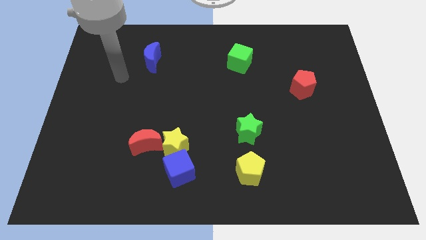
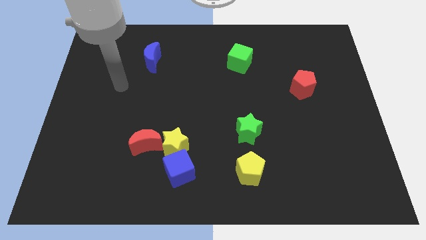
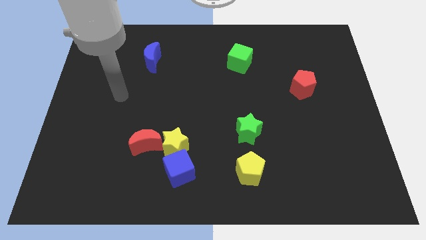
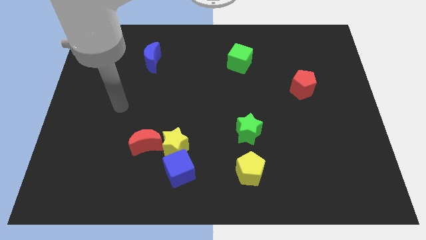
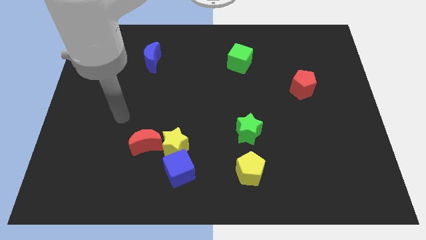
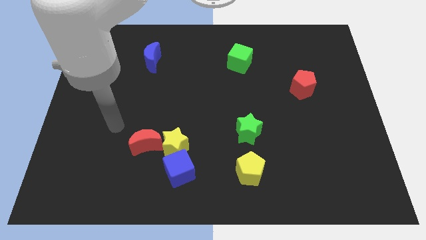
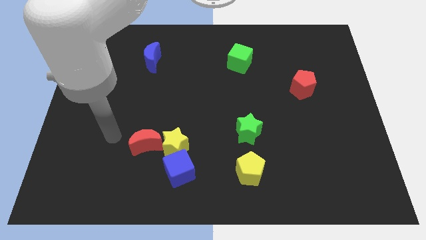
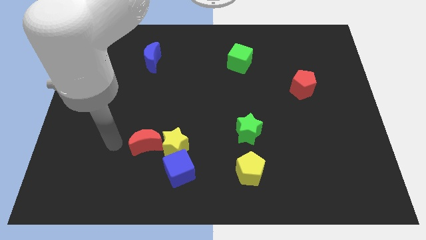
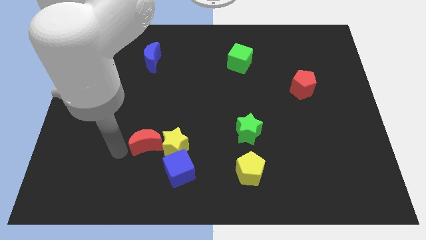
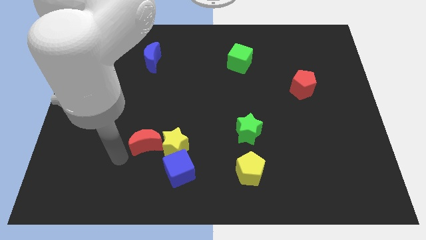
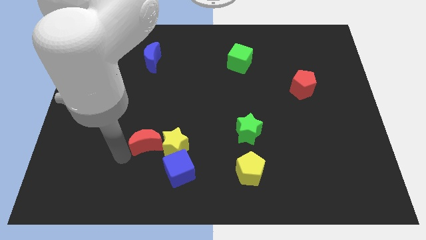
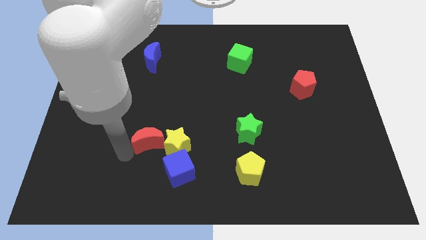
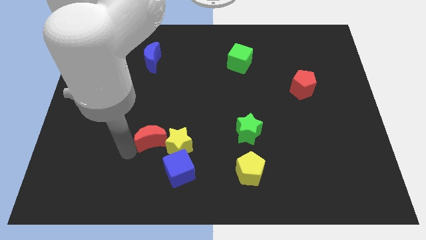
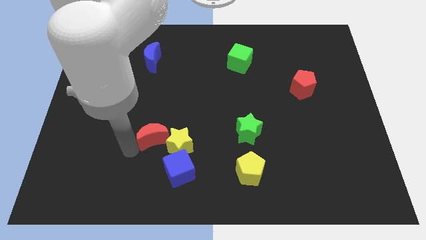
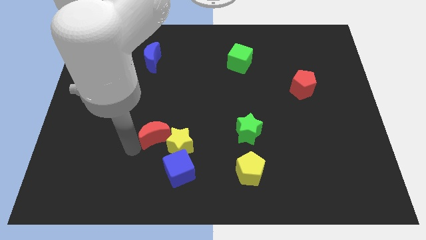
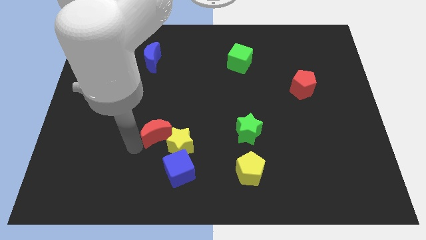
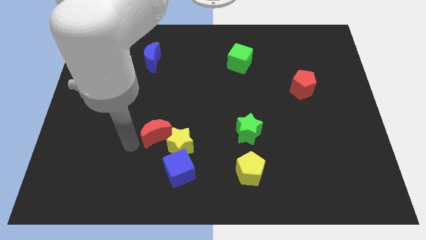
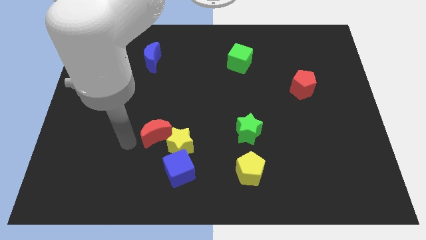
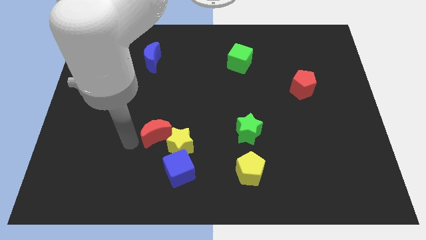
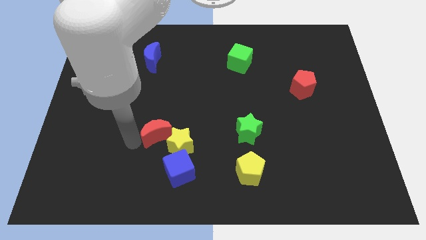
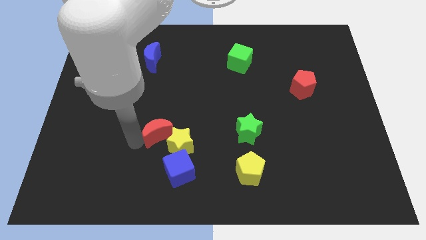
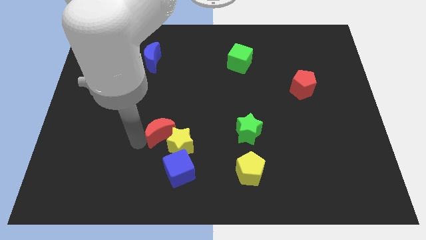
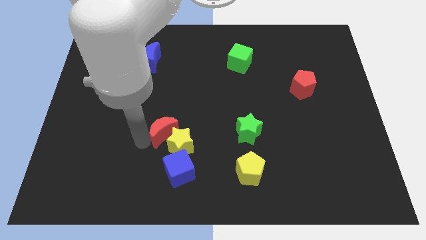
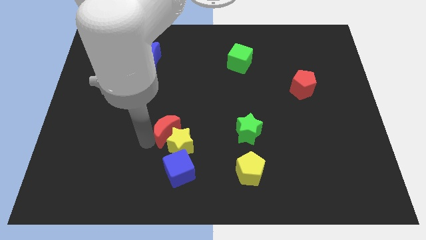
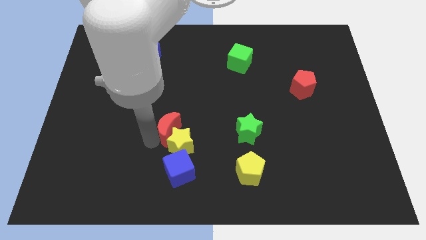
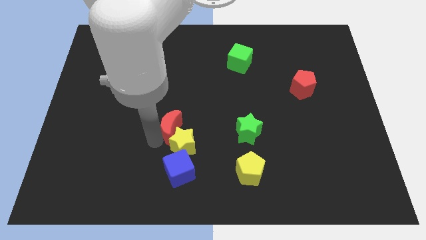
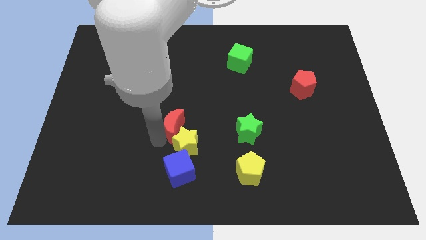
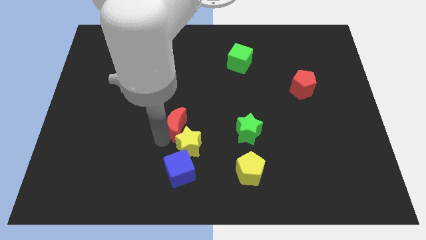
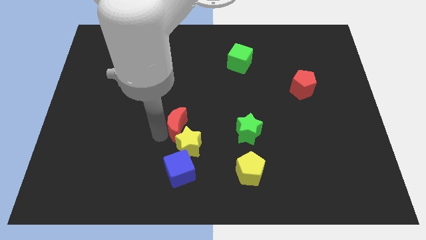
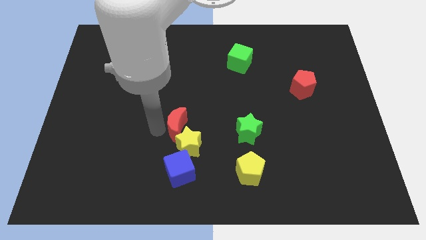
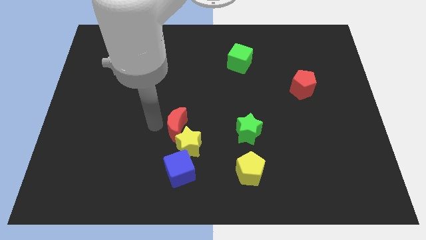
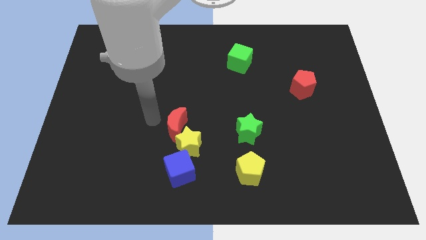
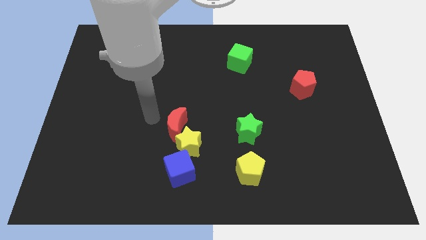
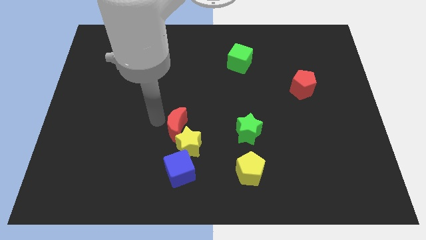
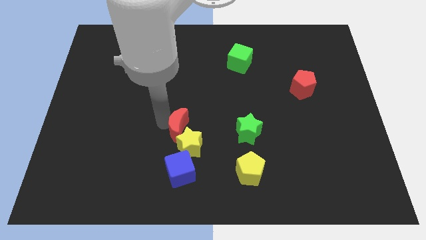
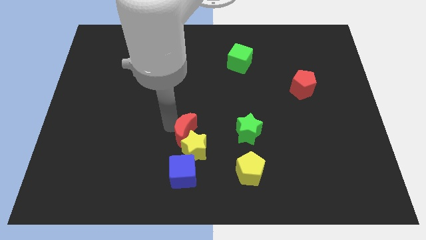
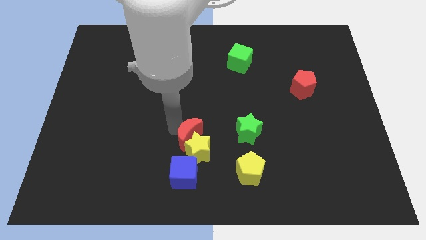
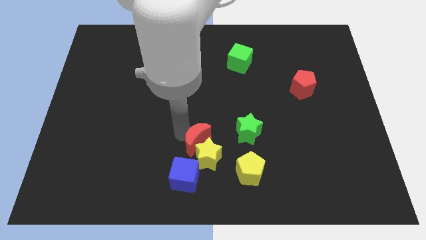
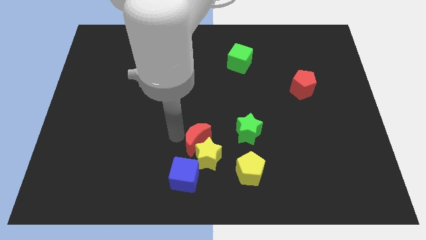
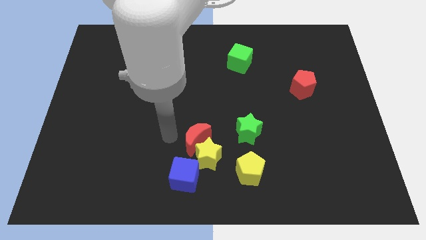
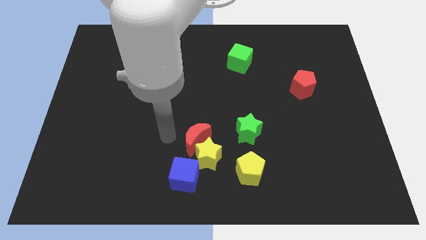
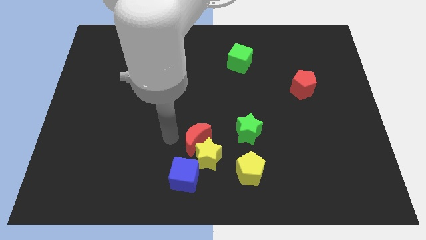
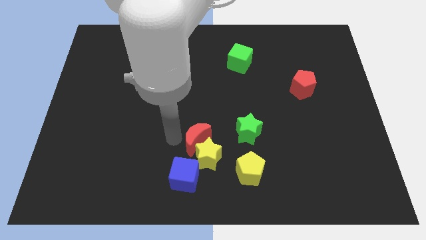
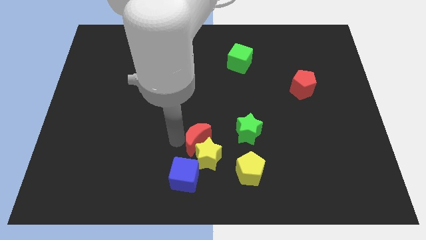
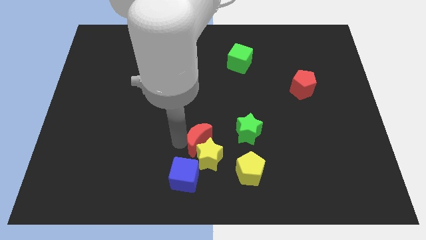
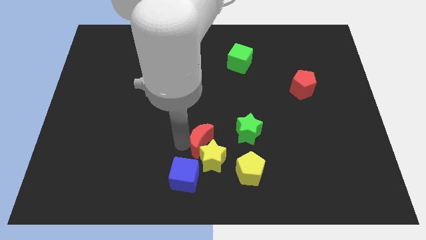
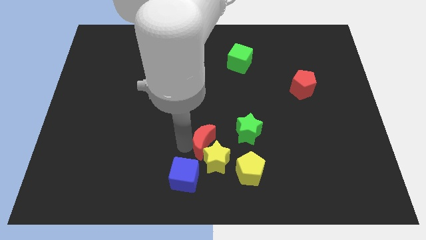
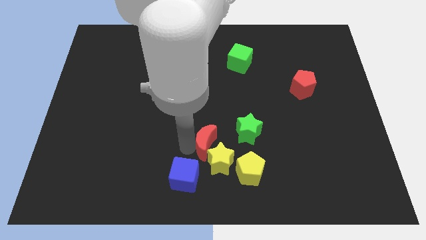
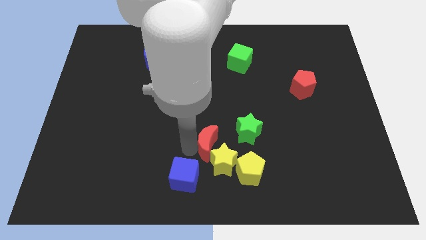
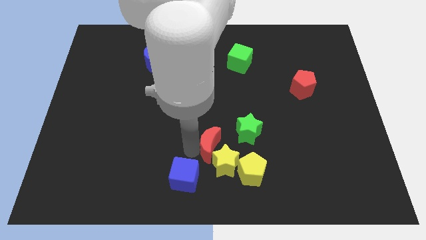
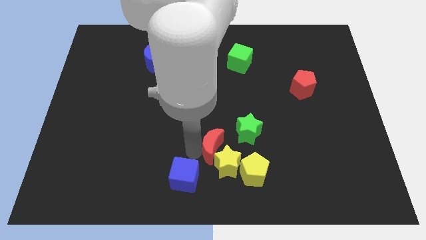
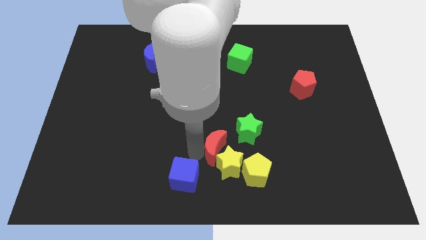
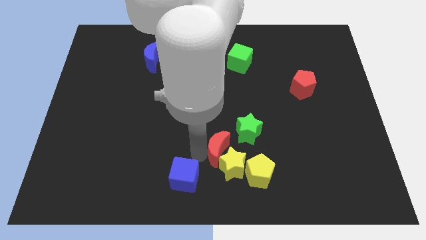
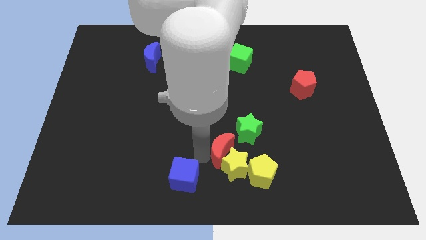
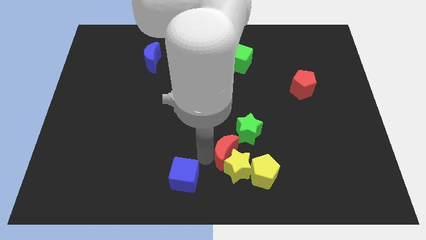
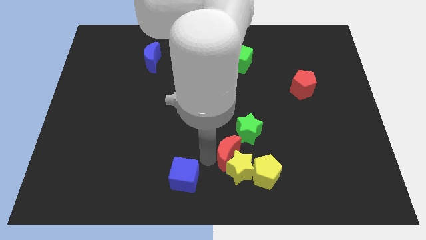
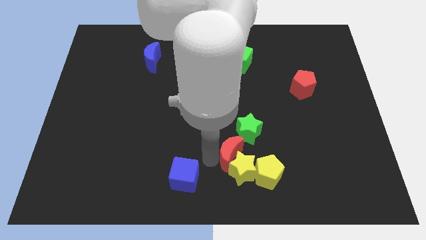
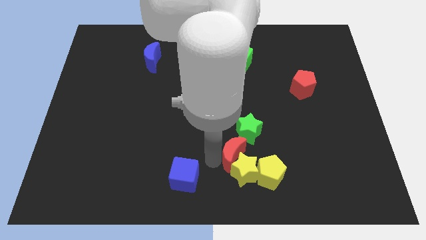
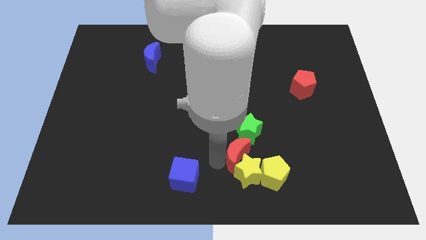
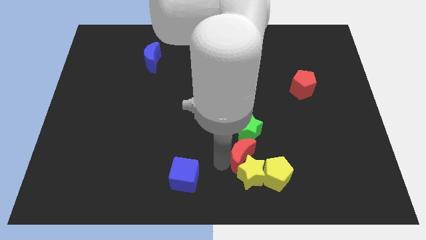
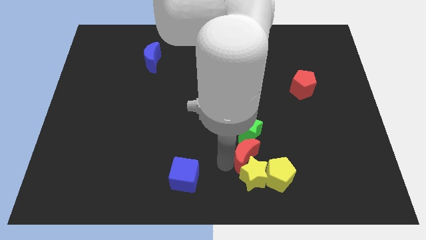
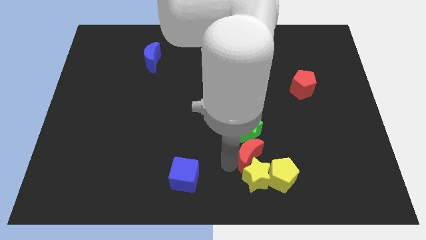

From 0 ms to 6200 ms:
put the red moon to the bottom right side of the green star

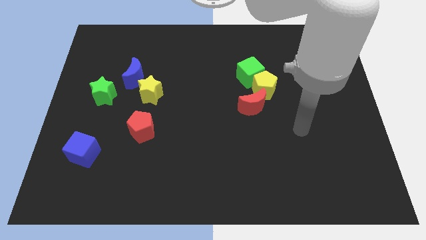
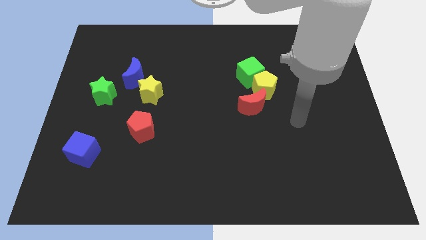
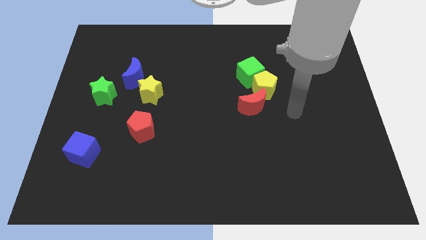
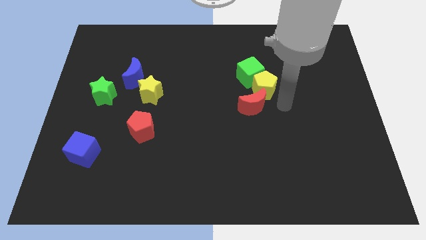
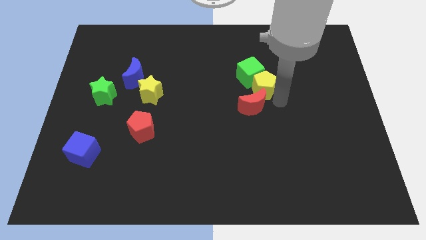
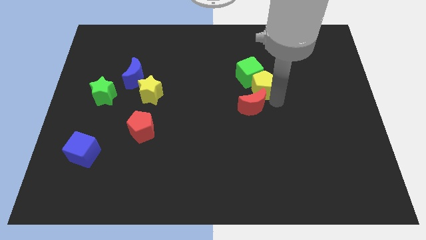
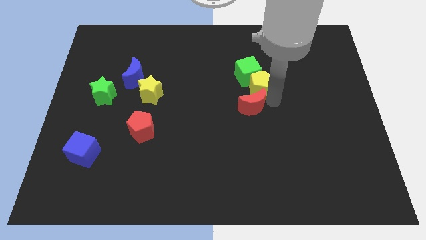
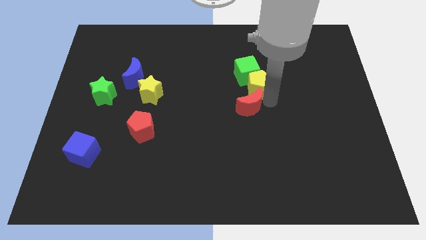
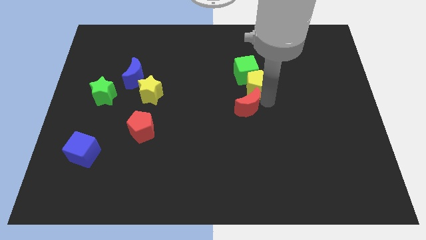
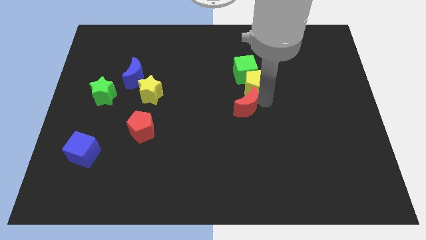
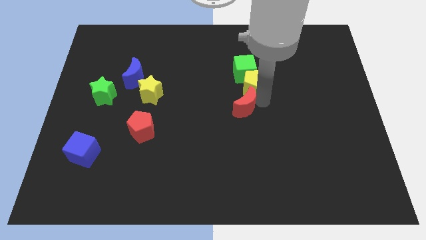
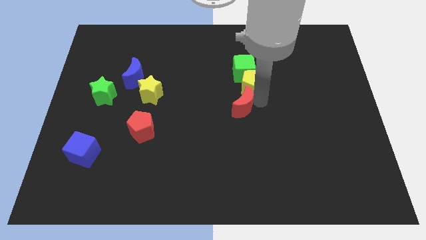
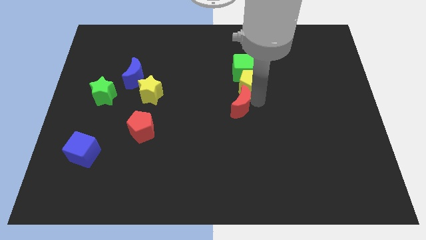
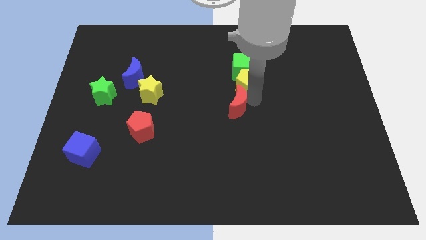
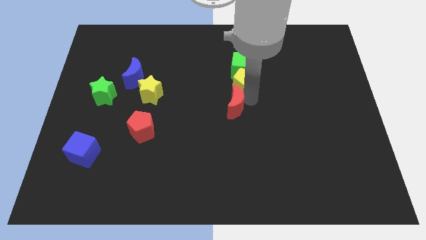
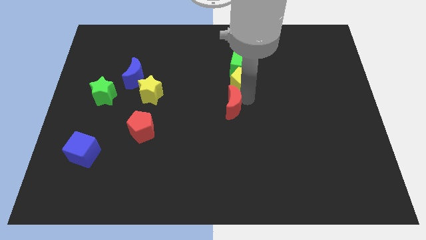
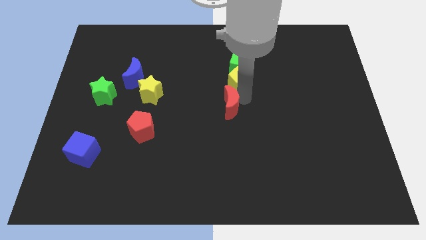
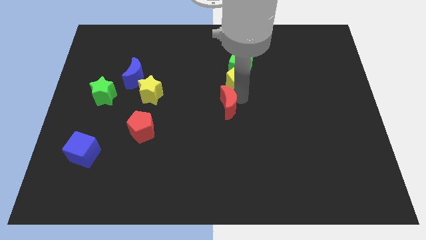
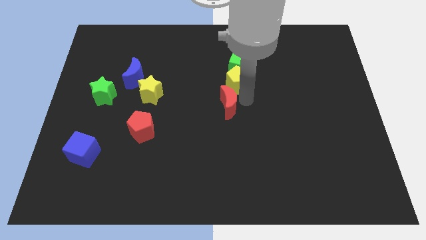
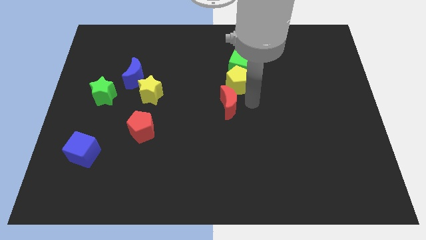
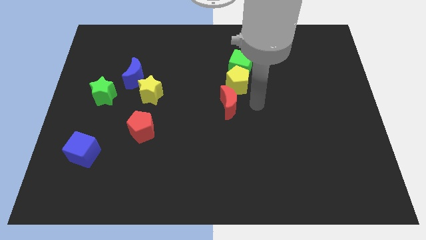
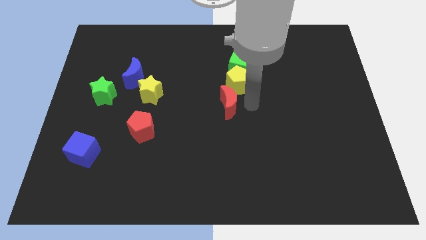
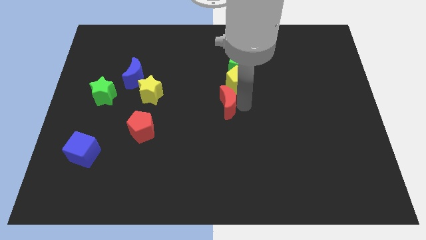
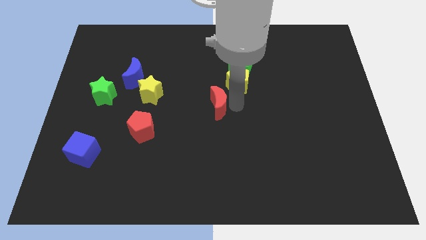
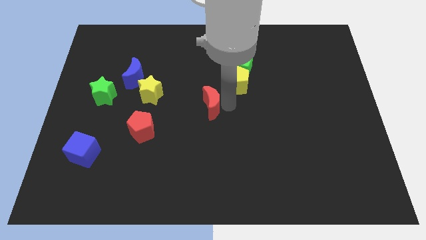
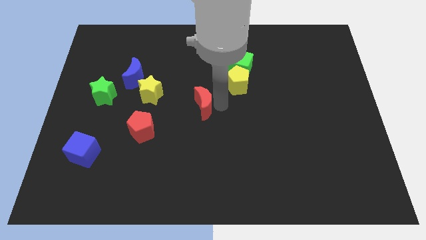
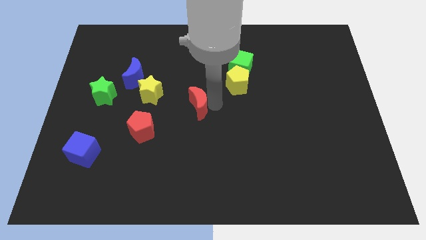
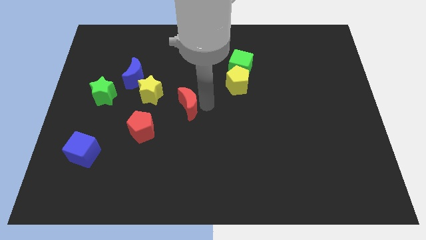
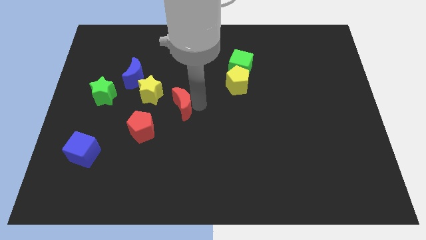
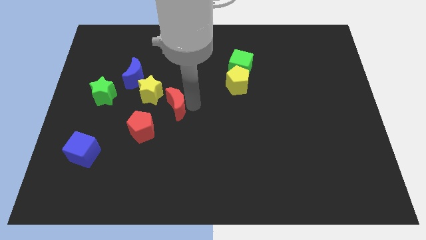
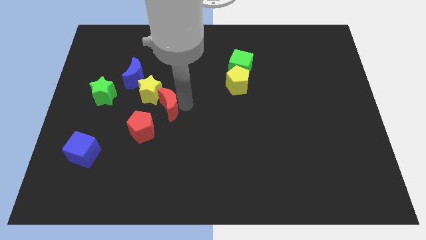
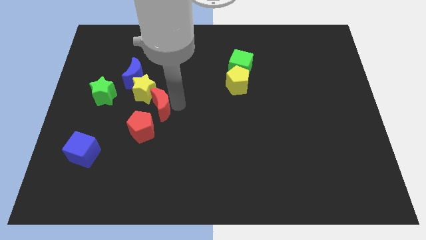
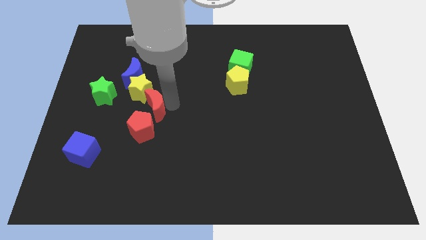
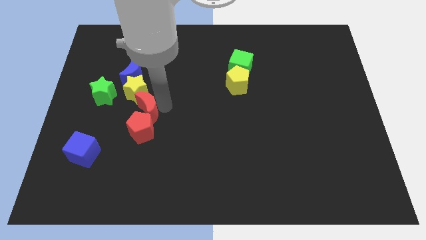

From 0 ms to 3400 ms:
move the red moon to the top left side of the red pentagon
